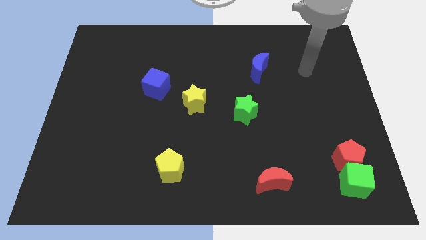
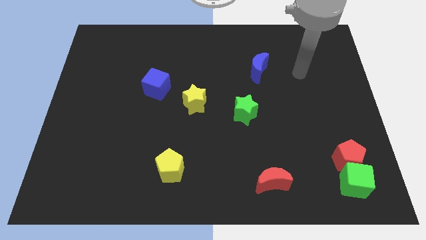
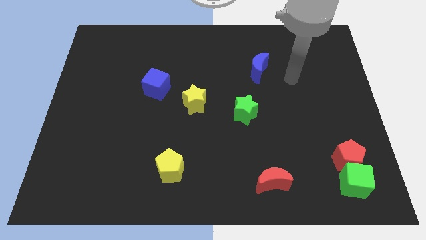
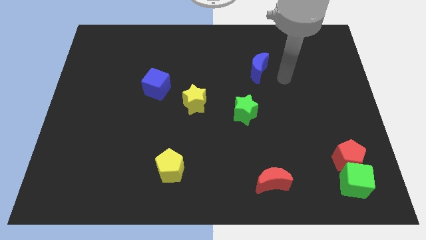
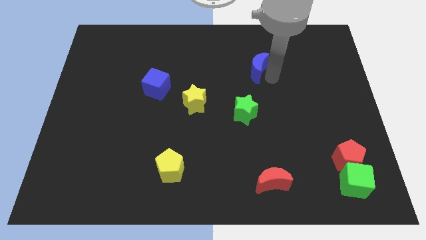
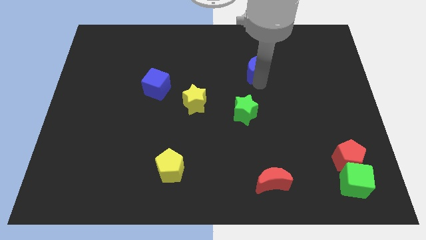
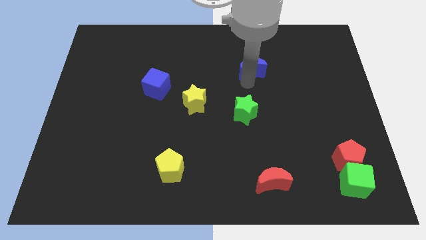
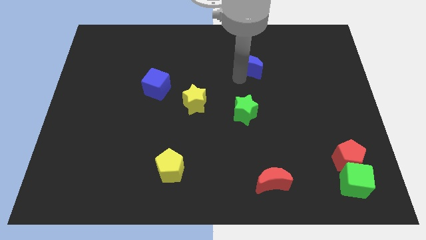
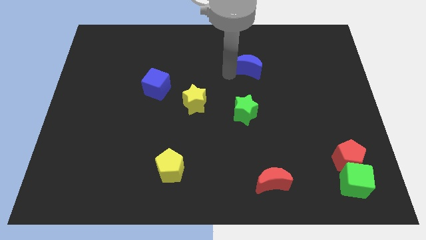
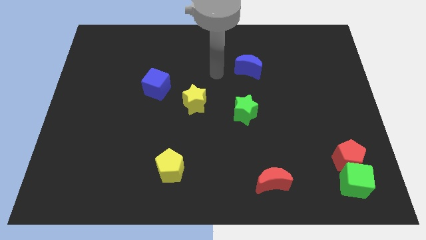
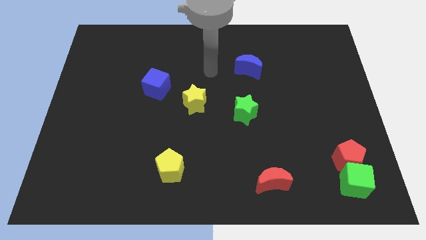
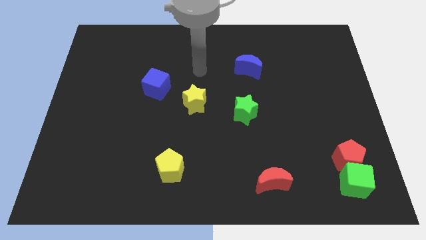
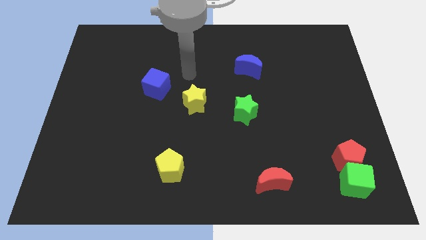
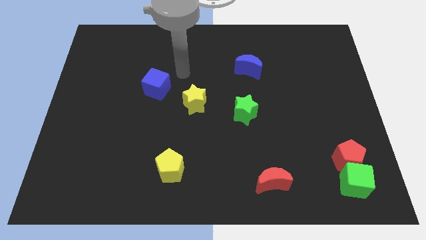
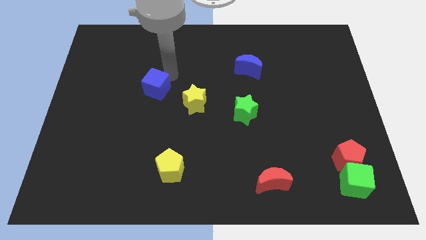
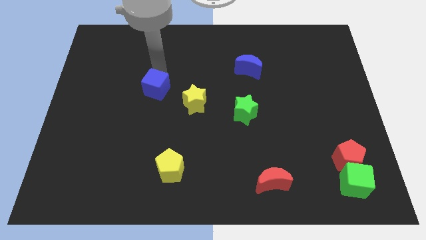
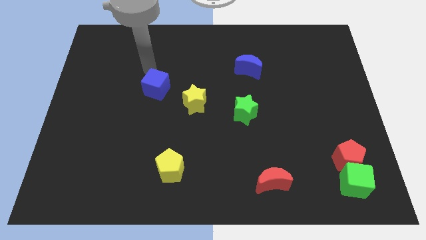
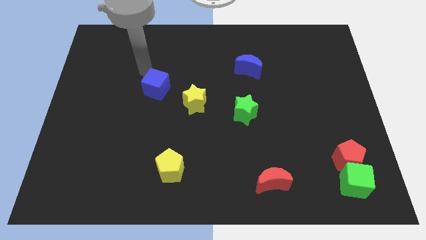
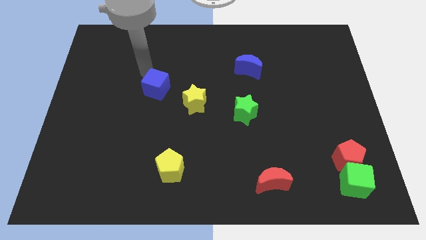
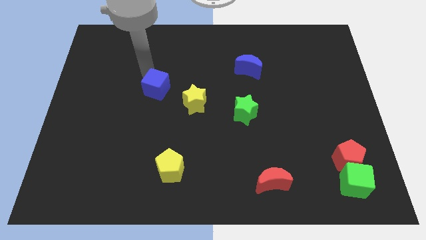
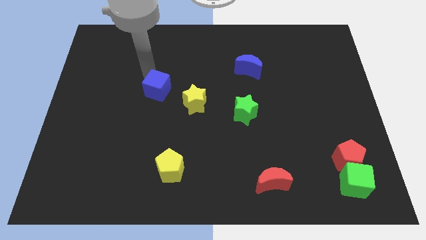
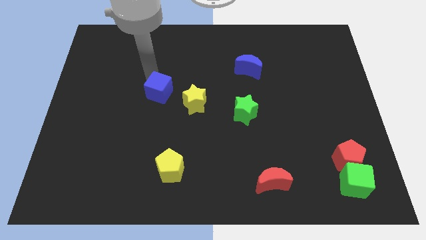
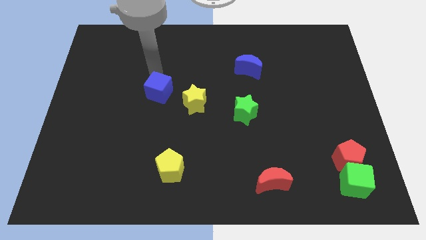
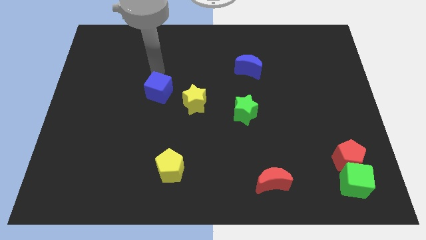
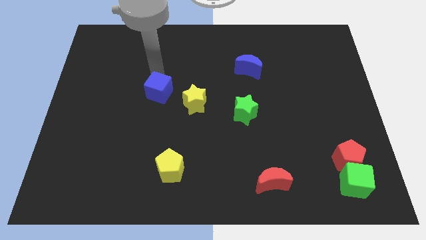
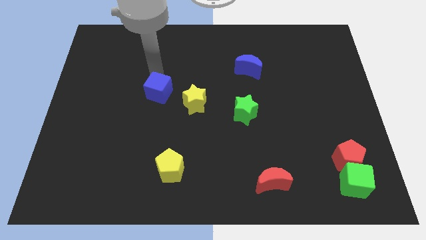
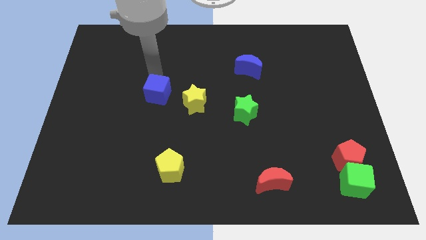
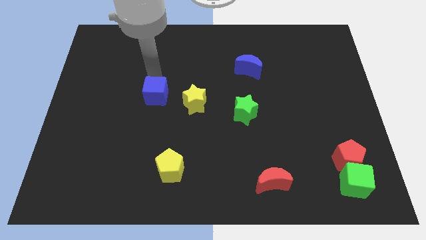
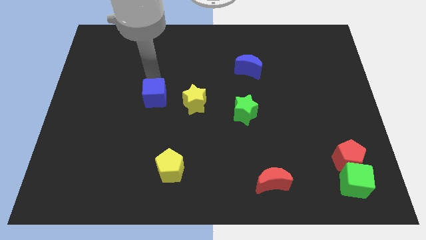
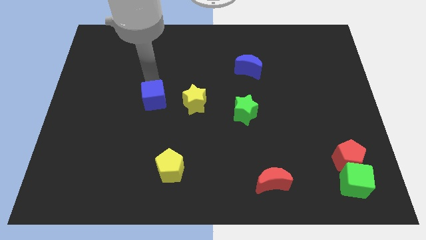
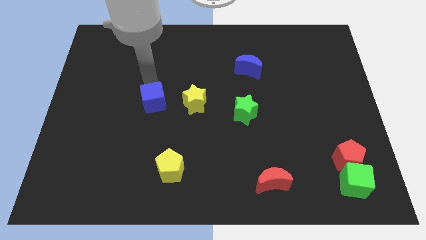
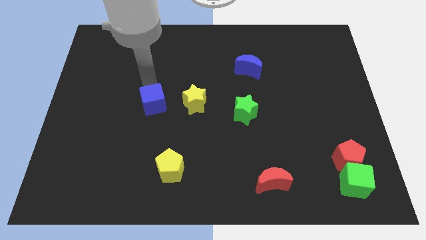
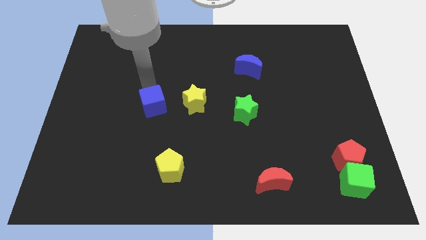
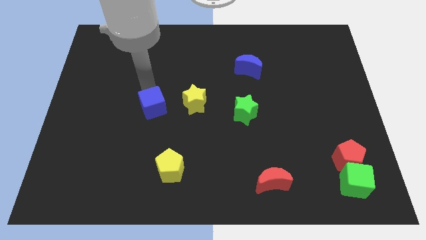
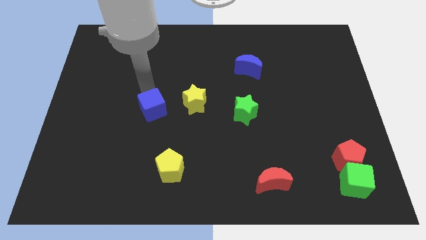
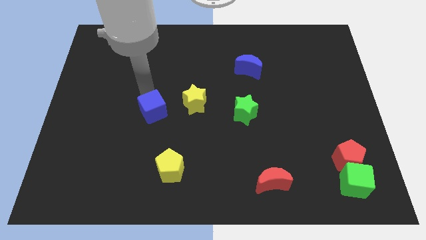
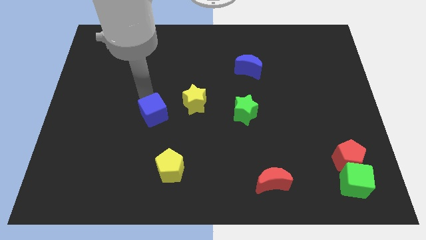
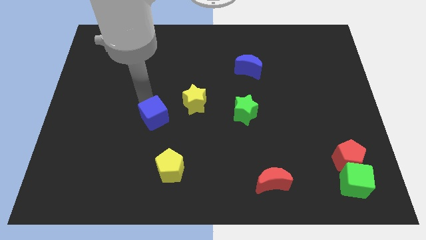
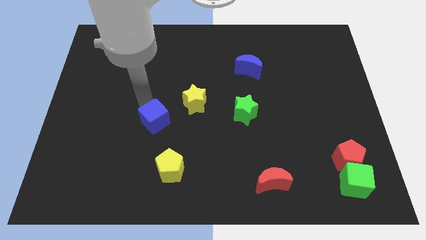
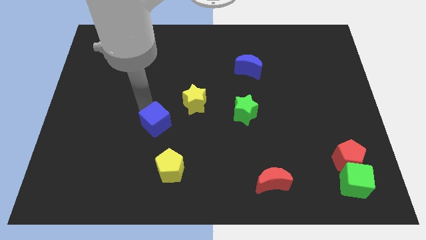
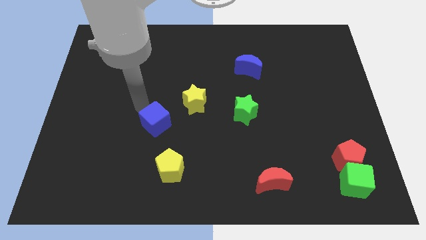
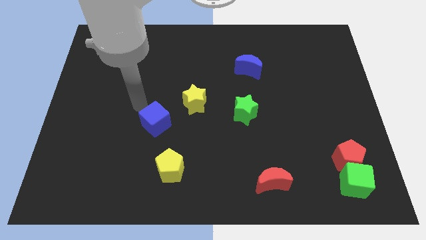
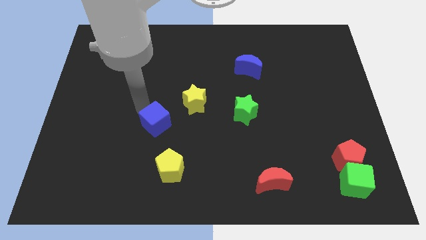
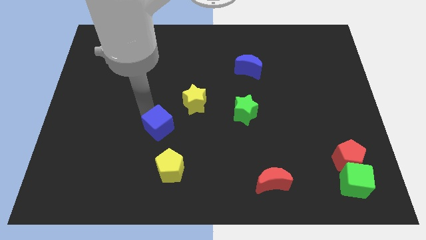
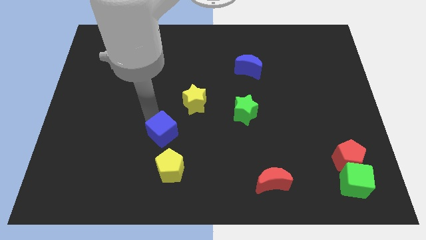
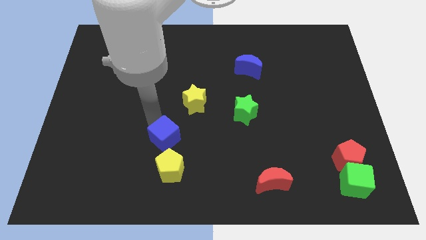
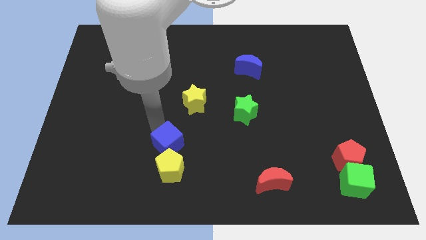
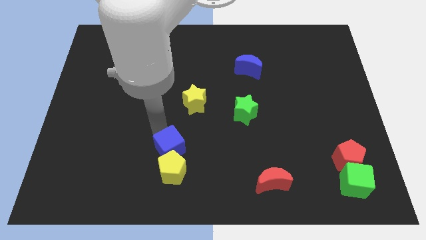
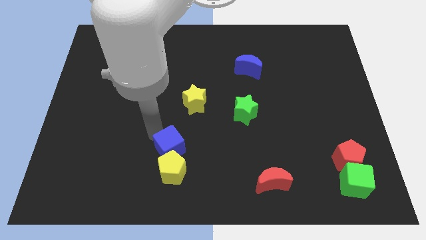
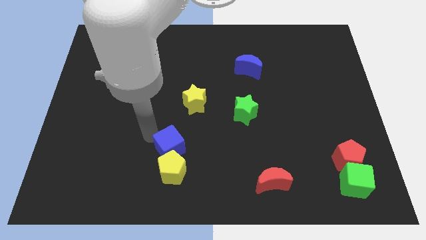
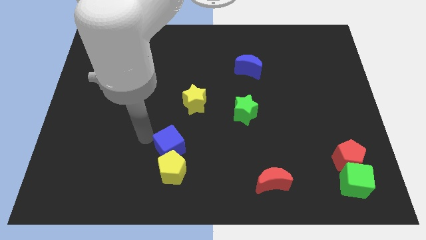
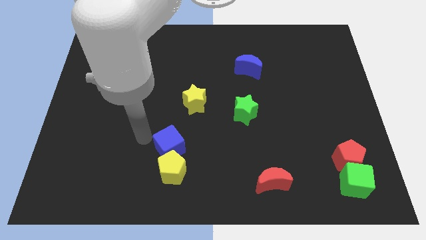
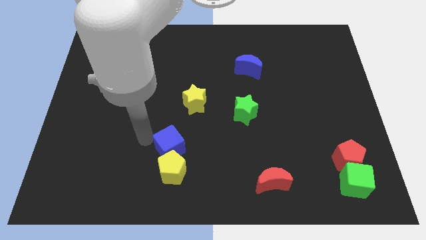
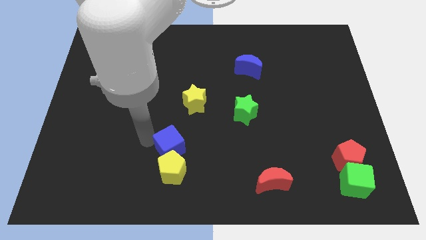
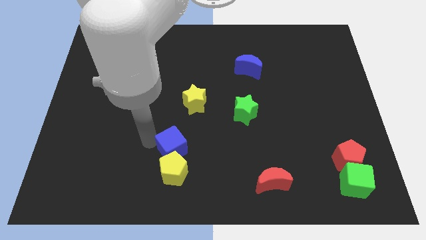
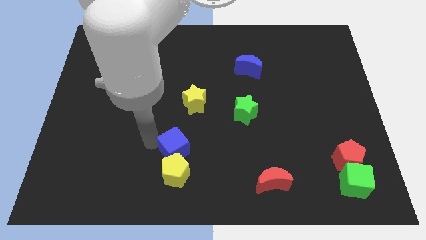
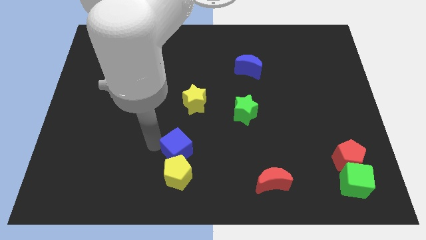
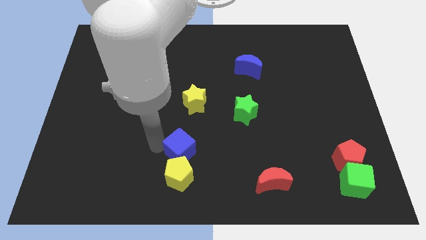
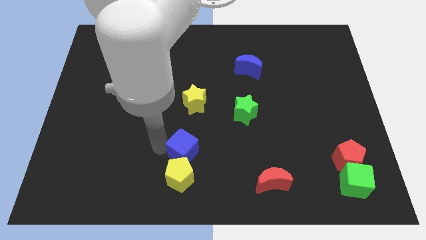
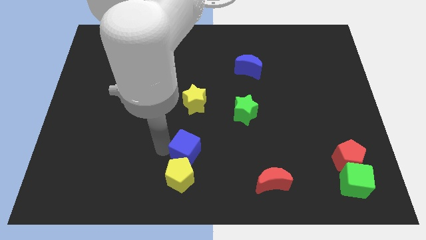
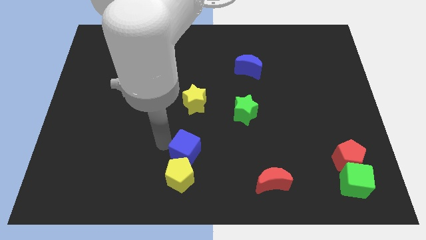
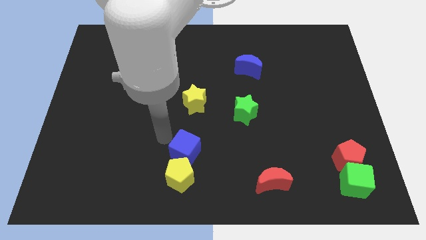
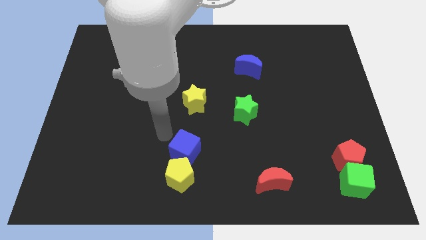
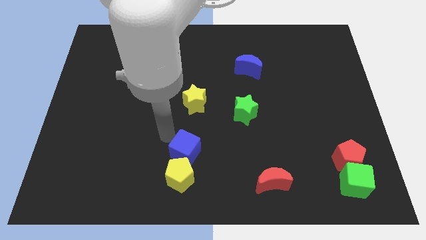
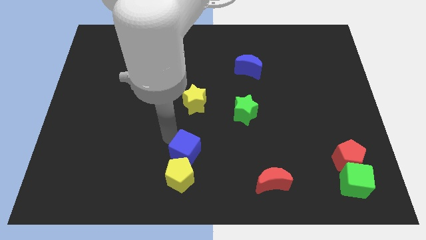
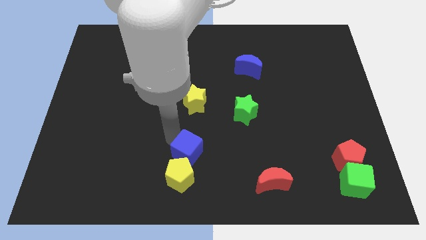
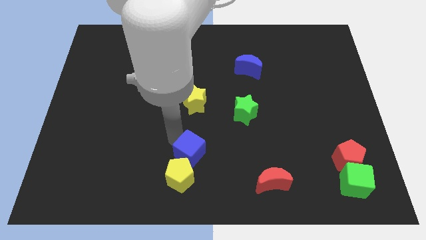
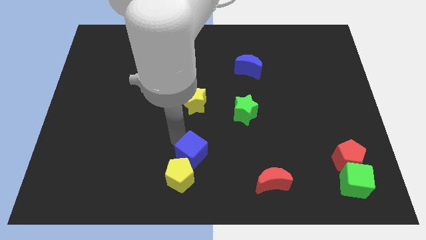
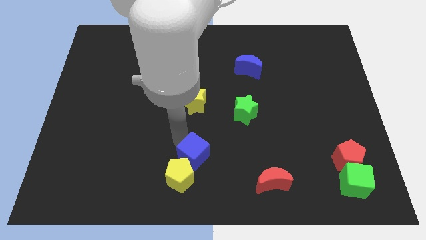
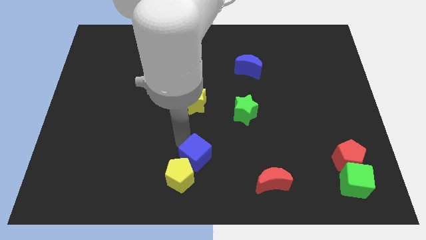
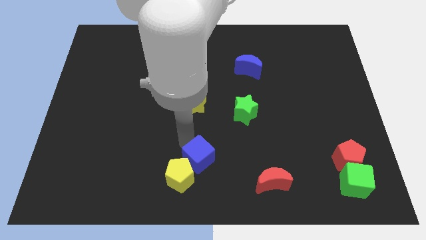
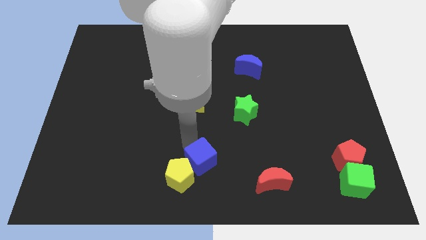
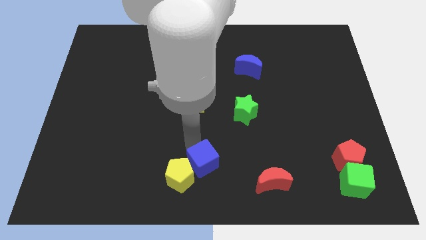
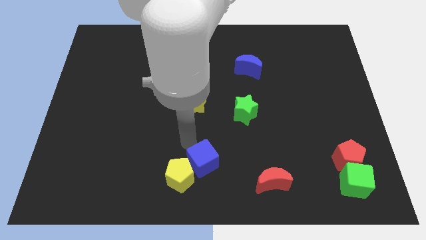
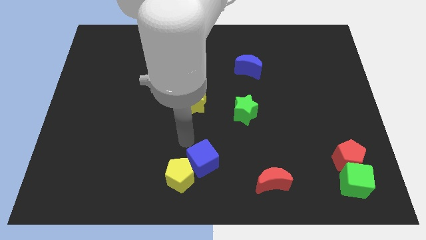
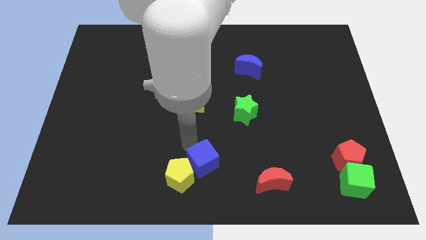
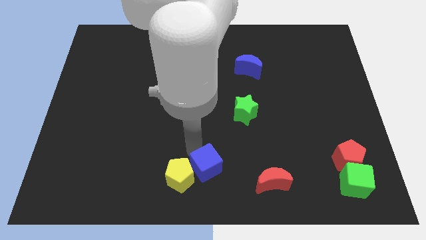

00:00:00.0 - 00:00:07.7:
put the blue cube to the left of the red moon
